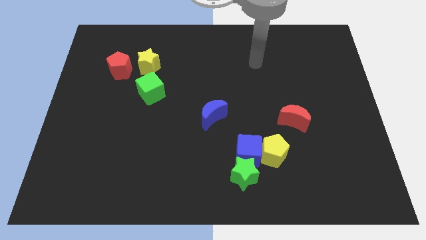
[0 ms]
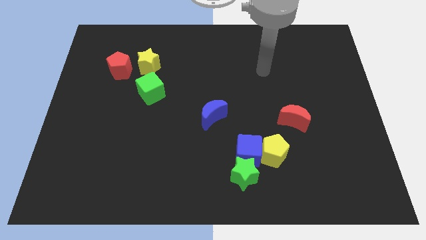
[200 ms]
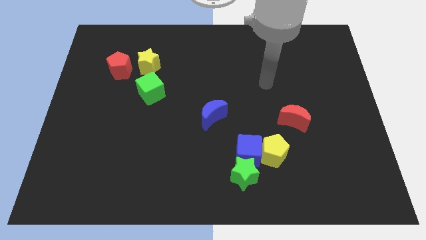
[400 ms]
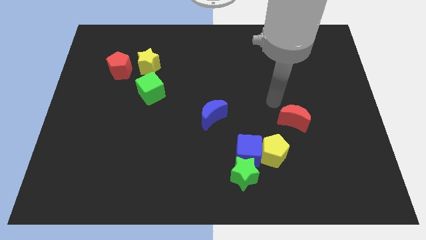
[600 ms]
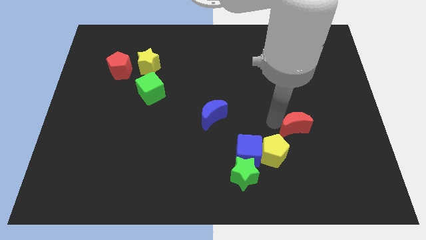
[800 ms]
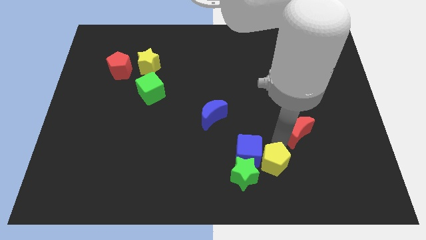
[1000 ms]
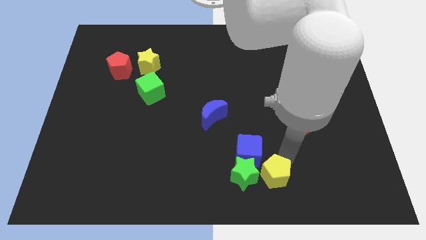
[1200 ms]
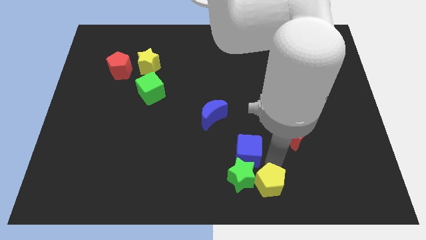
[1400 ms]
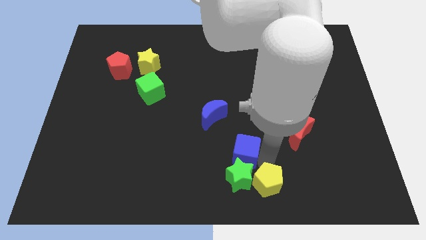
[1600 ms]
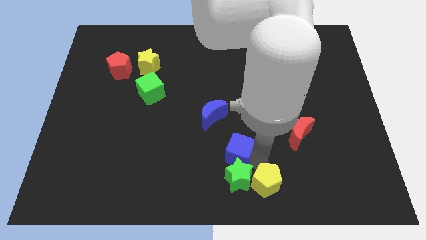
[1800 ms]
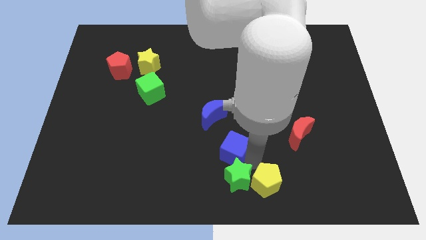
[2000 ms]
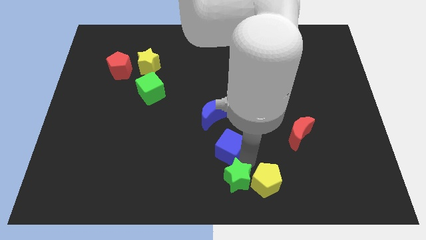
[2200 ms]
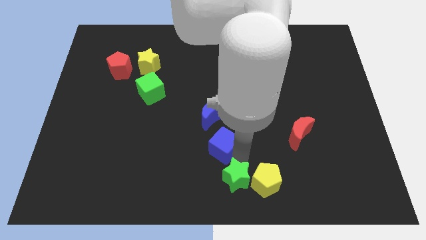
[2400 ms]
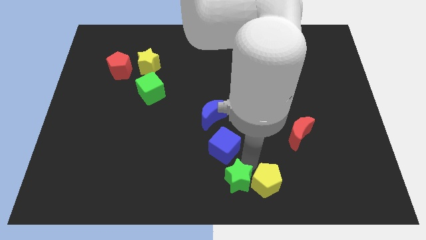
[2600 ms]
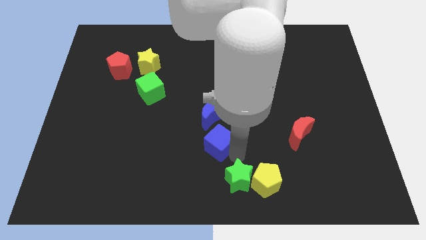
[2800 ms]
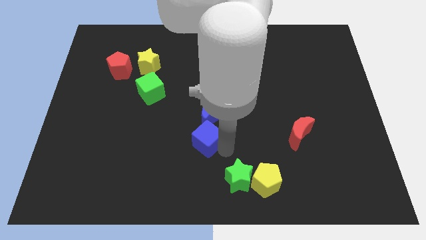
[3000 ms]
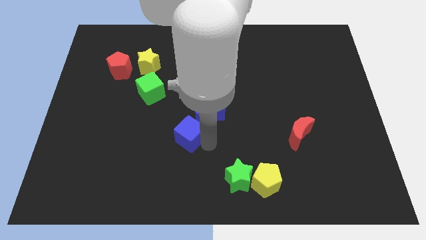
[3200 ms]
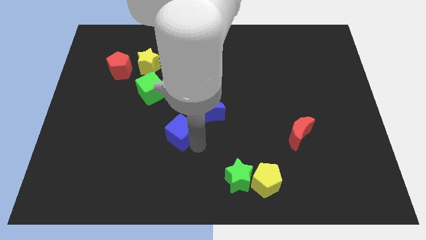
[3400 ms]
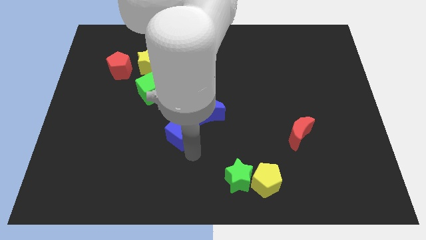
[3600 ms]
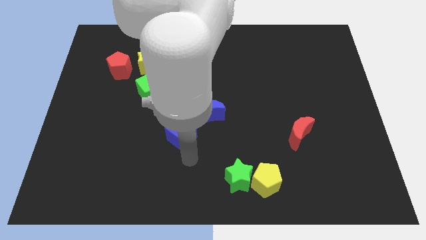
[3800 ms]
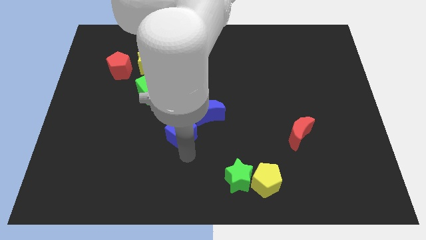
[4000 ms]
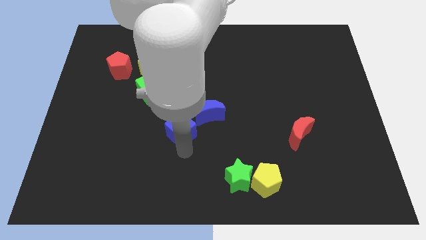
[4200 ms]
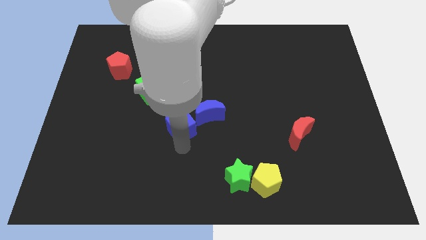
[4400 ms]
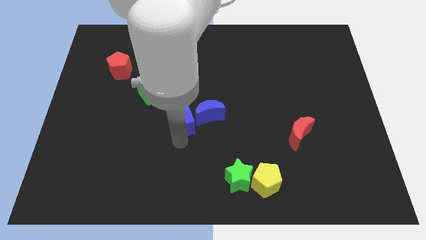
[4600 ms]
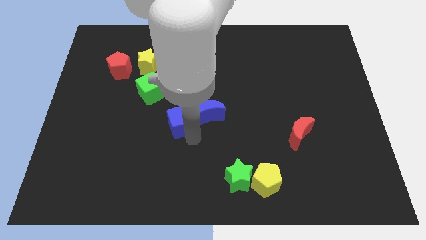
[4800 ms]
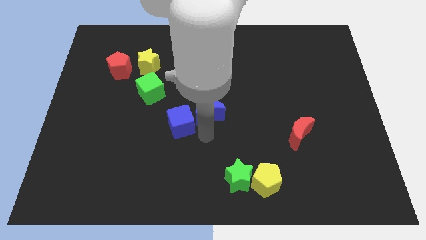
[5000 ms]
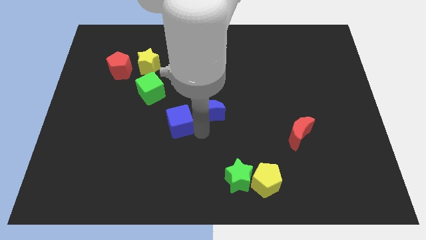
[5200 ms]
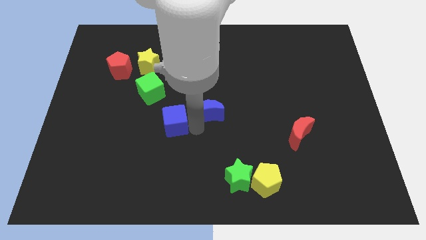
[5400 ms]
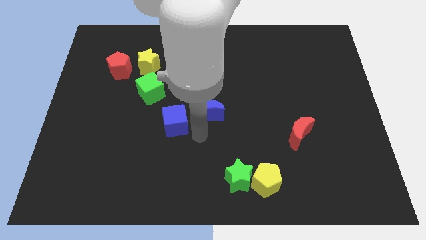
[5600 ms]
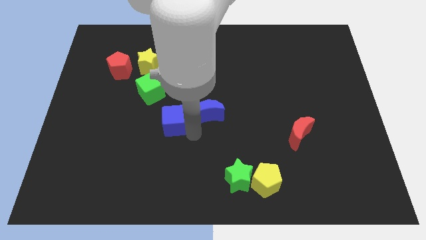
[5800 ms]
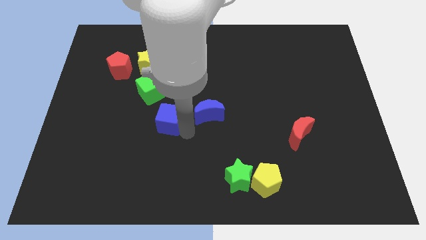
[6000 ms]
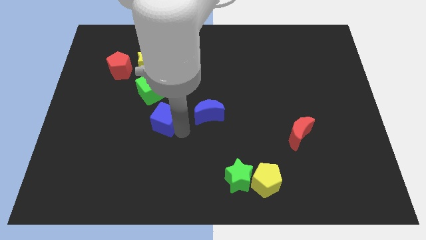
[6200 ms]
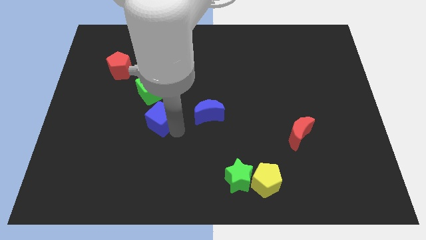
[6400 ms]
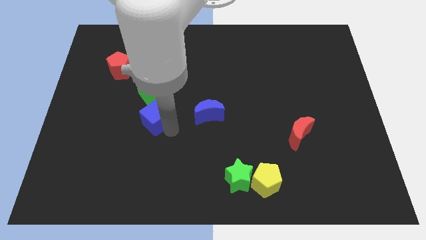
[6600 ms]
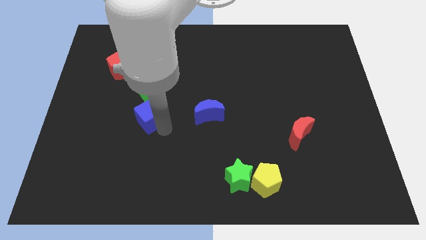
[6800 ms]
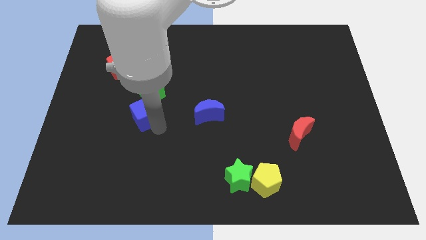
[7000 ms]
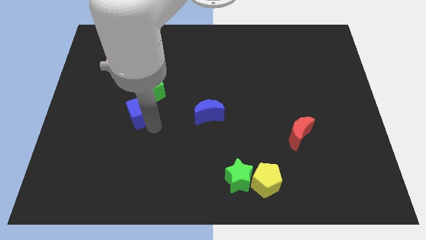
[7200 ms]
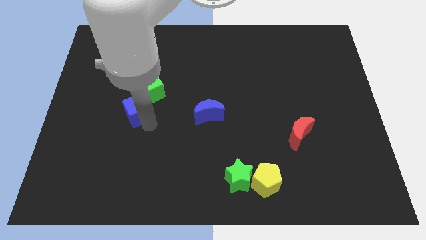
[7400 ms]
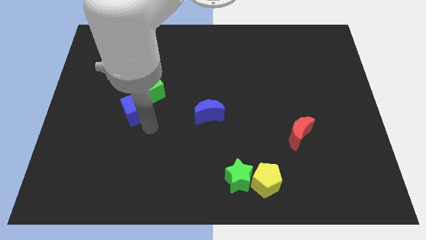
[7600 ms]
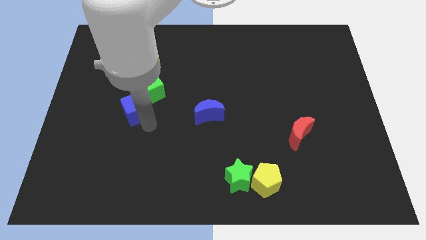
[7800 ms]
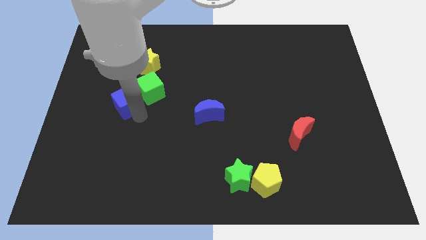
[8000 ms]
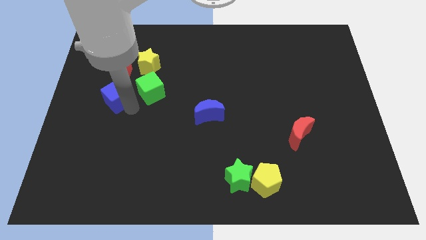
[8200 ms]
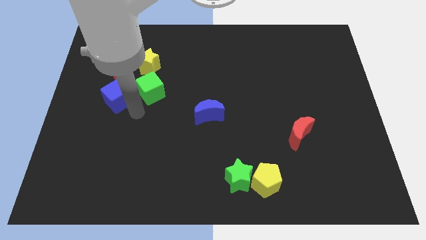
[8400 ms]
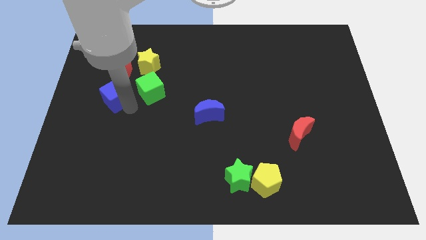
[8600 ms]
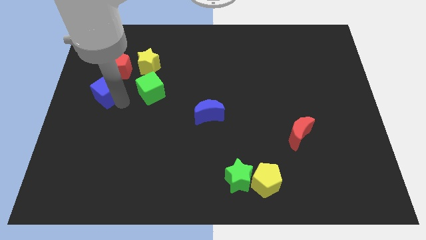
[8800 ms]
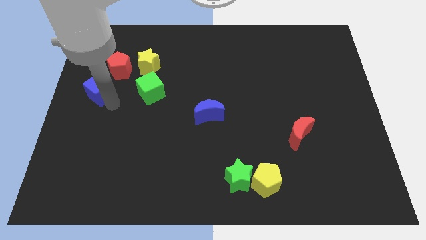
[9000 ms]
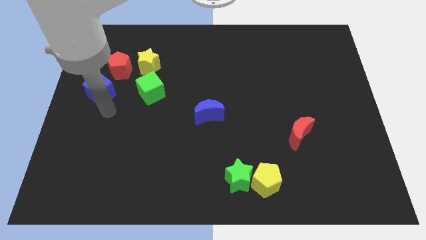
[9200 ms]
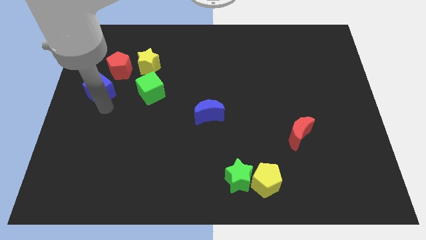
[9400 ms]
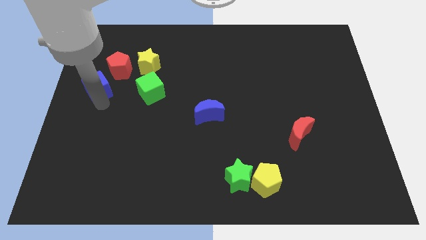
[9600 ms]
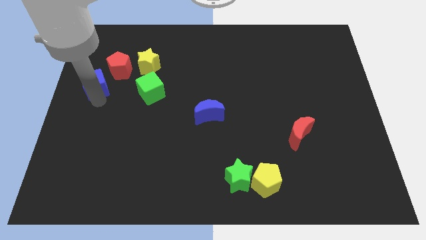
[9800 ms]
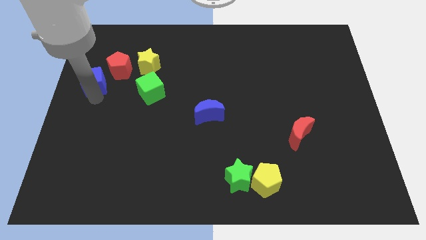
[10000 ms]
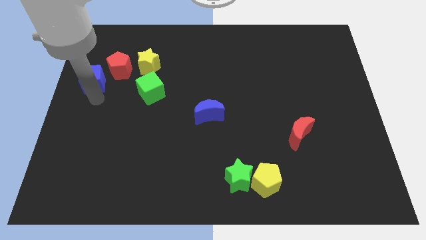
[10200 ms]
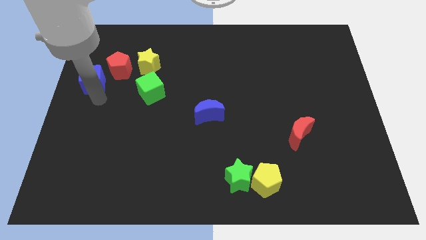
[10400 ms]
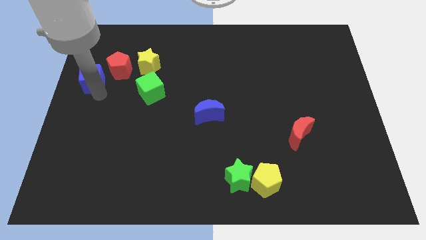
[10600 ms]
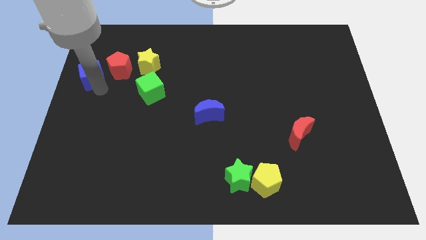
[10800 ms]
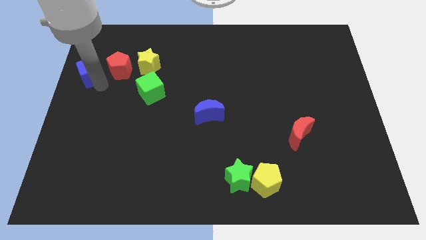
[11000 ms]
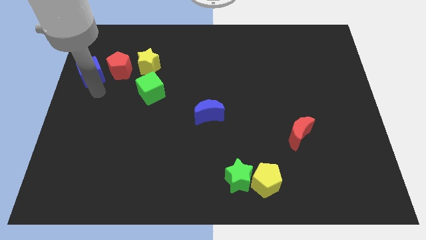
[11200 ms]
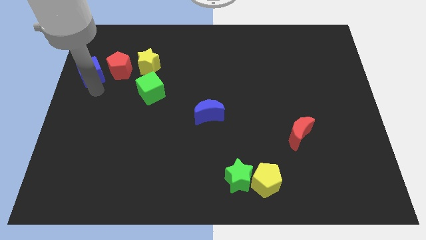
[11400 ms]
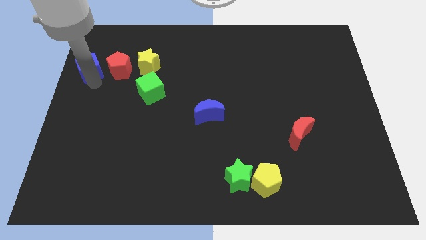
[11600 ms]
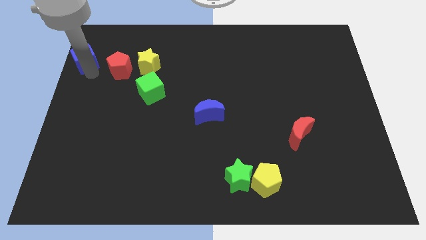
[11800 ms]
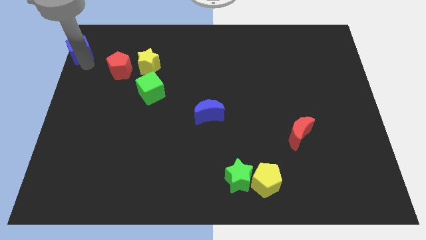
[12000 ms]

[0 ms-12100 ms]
move the blue cube to the upper left corner
